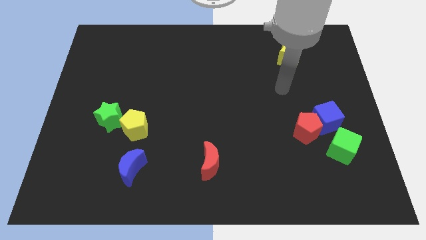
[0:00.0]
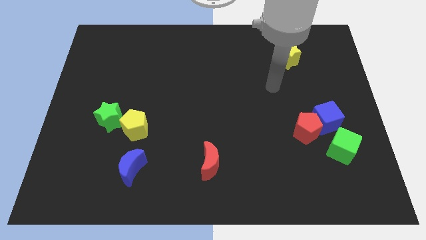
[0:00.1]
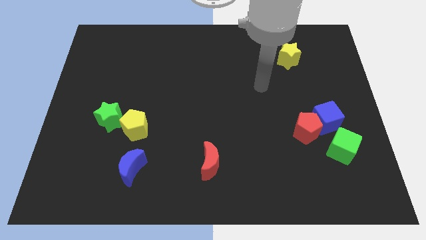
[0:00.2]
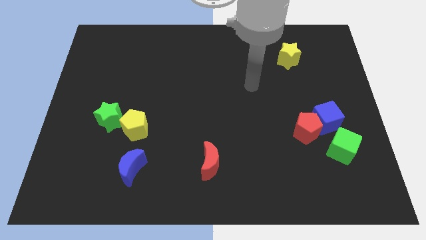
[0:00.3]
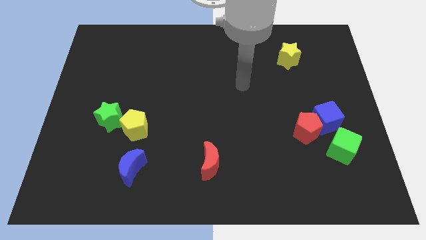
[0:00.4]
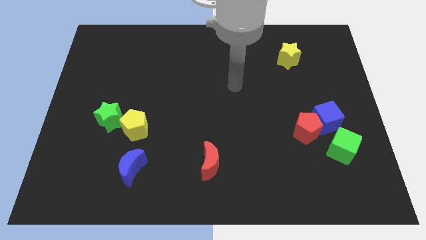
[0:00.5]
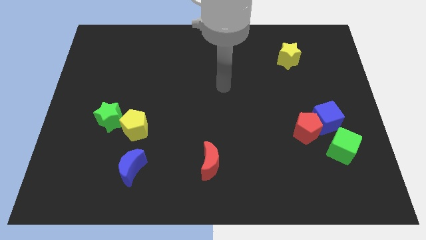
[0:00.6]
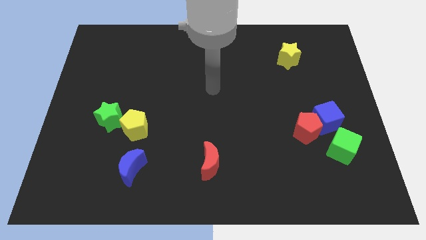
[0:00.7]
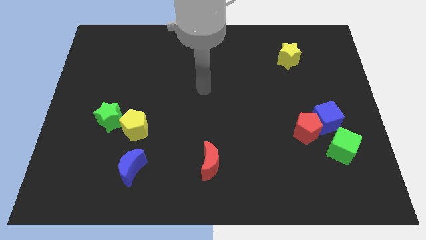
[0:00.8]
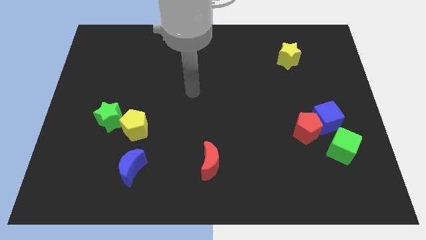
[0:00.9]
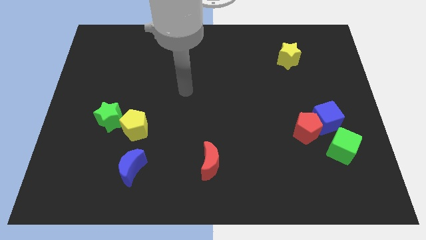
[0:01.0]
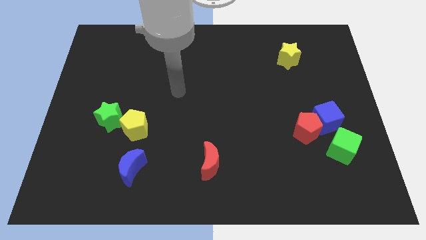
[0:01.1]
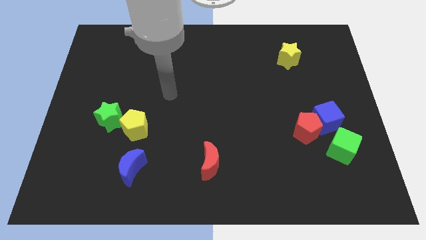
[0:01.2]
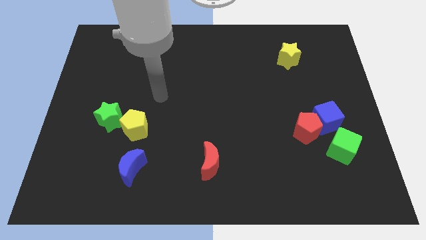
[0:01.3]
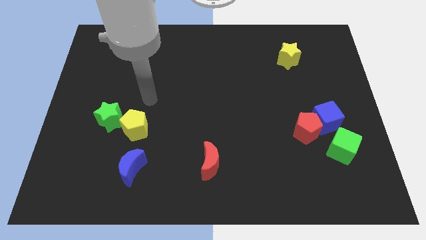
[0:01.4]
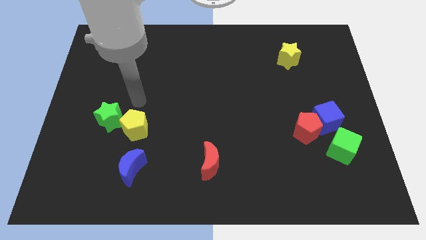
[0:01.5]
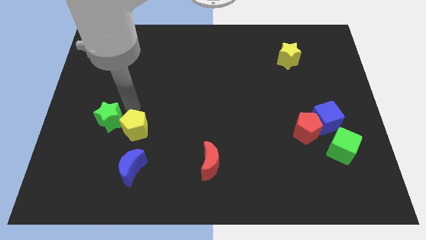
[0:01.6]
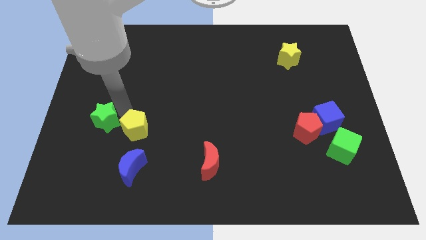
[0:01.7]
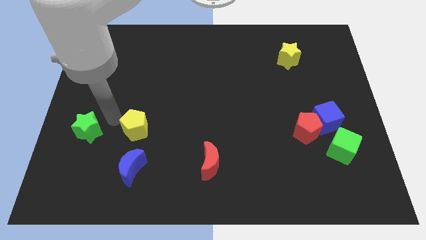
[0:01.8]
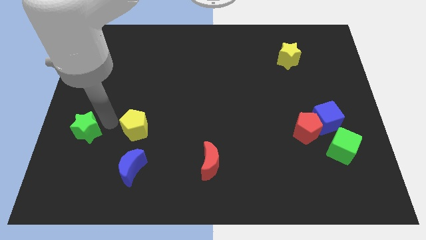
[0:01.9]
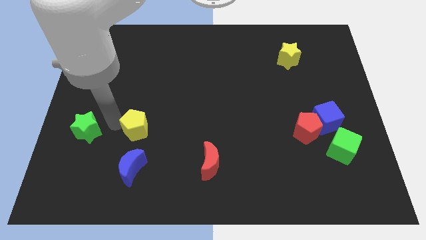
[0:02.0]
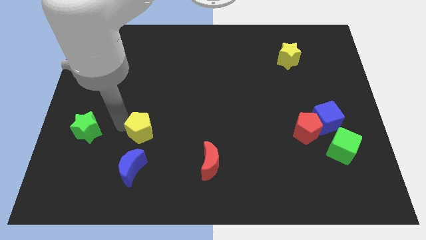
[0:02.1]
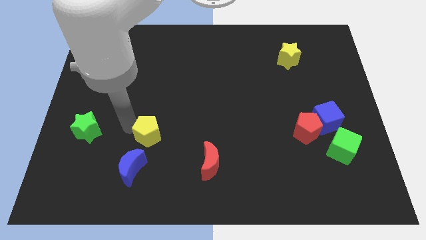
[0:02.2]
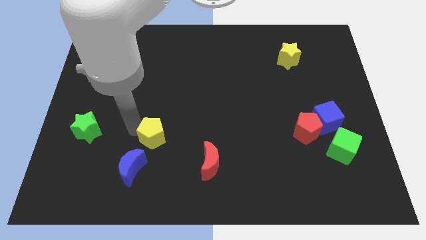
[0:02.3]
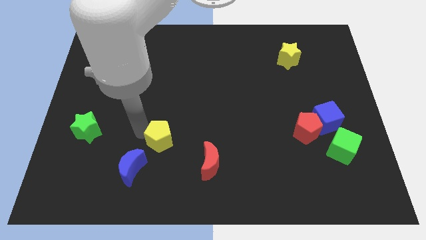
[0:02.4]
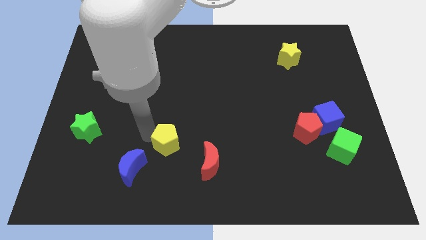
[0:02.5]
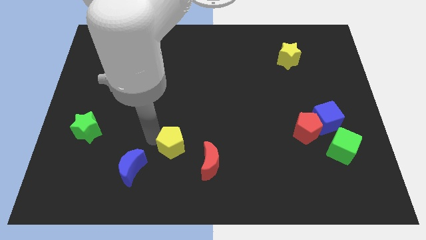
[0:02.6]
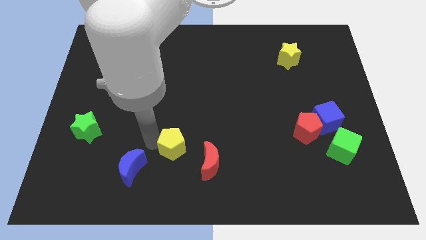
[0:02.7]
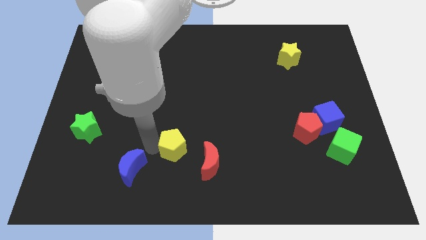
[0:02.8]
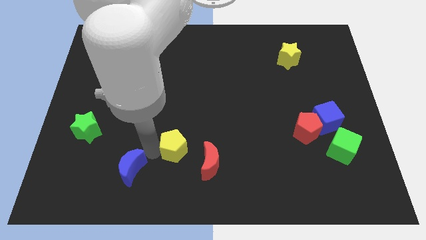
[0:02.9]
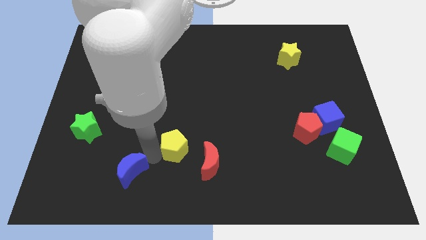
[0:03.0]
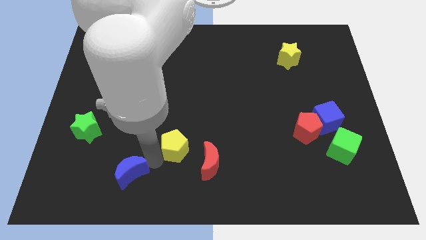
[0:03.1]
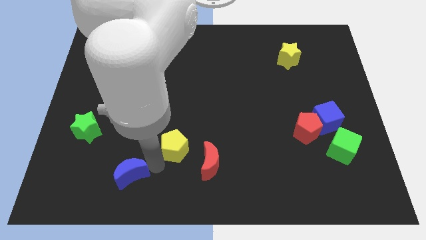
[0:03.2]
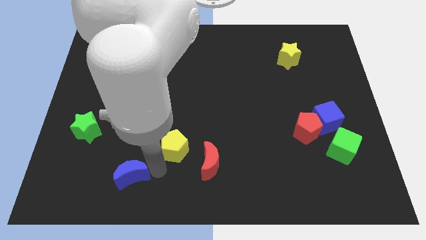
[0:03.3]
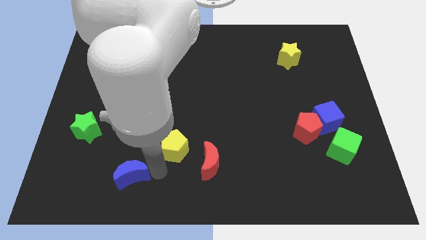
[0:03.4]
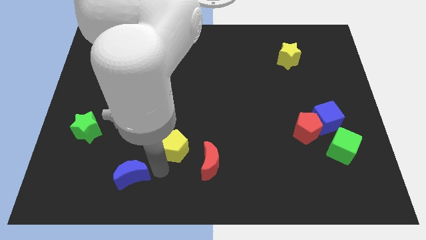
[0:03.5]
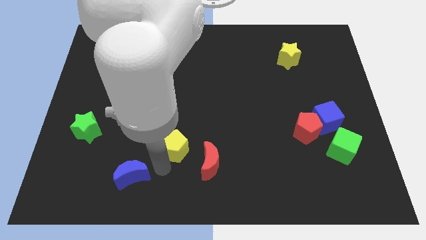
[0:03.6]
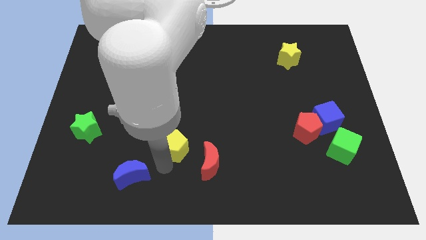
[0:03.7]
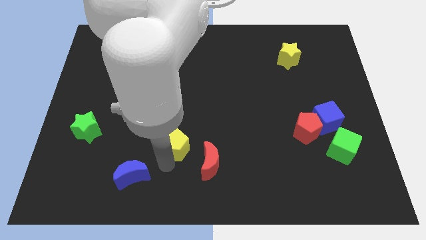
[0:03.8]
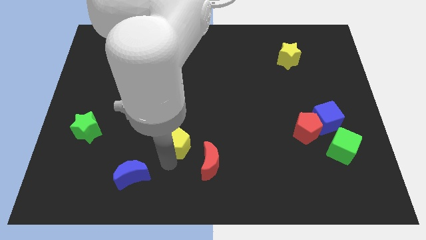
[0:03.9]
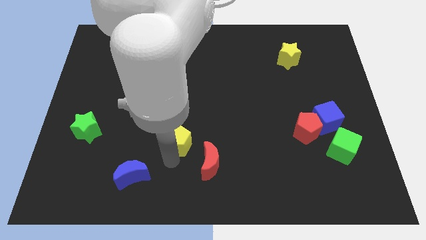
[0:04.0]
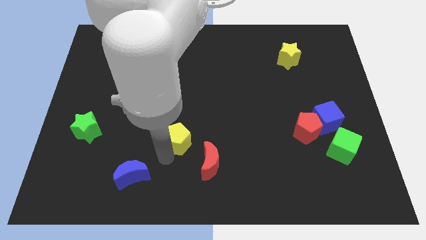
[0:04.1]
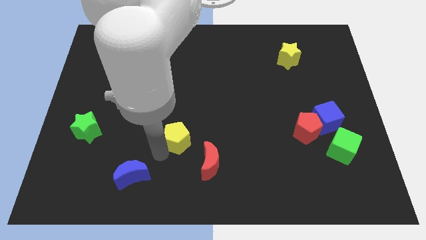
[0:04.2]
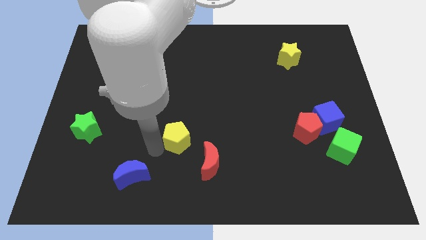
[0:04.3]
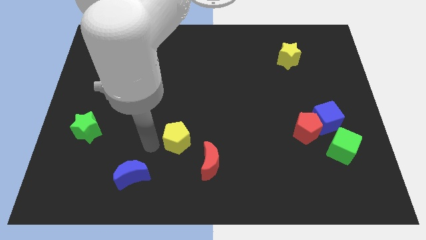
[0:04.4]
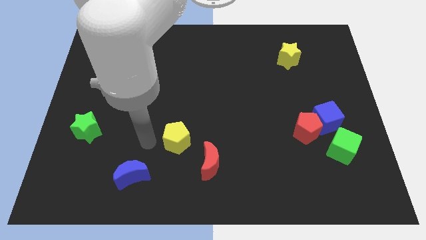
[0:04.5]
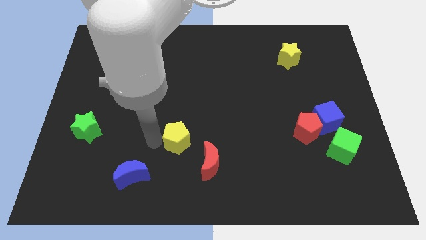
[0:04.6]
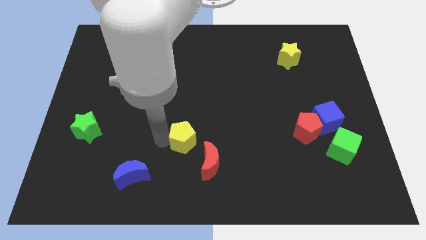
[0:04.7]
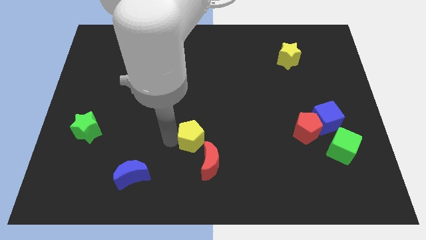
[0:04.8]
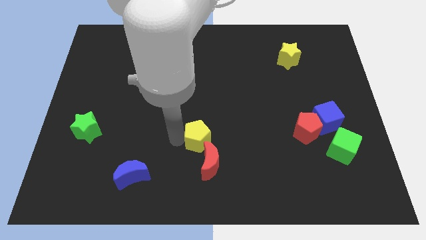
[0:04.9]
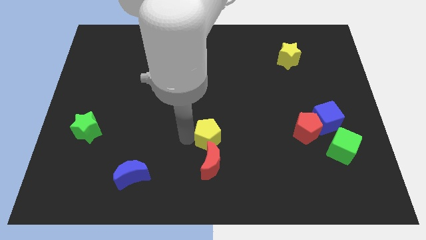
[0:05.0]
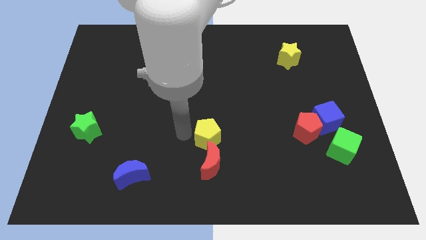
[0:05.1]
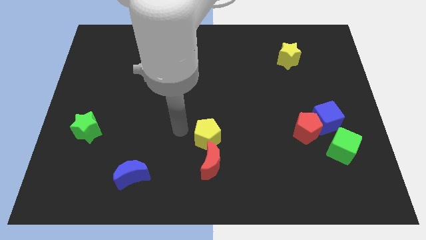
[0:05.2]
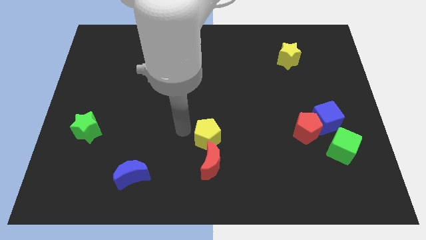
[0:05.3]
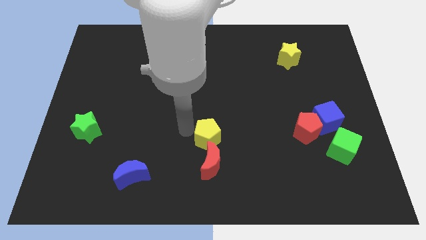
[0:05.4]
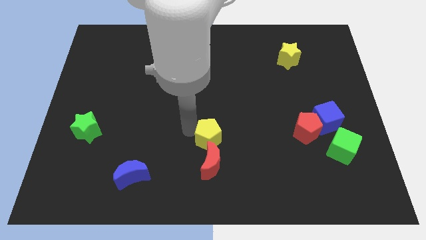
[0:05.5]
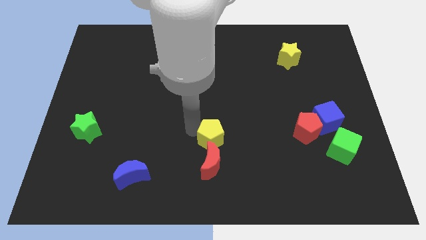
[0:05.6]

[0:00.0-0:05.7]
slide the yellow pentagon to the top right of the red moon

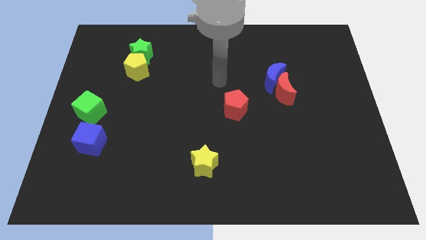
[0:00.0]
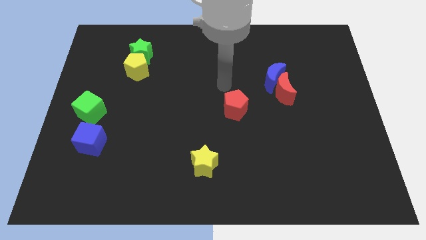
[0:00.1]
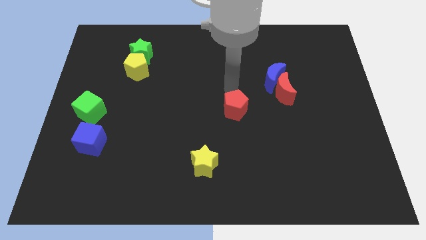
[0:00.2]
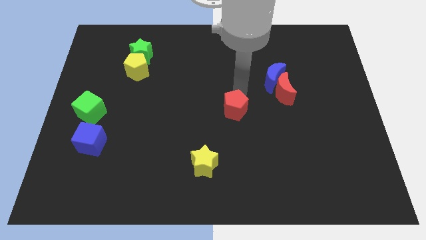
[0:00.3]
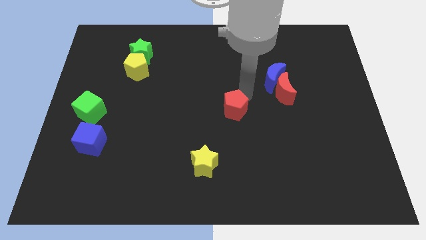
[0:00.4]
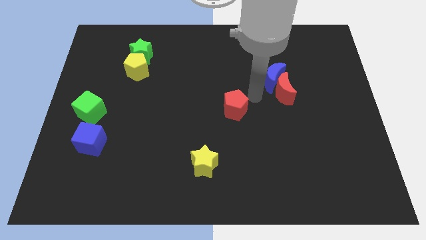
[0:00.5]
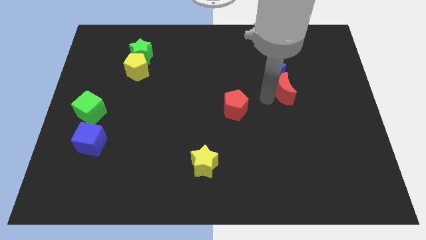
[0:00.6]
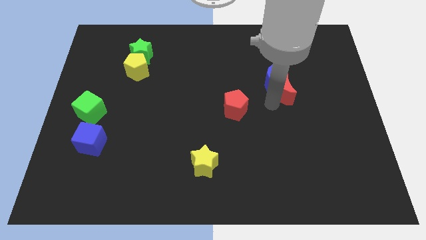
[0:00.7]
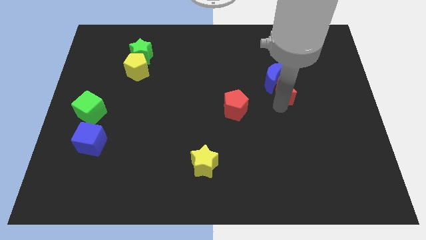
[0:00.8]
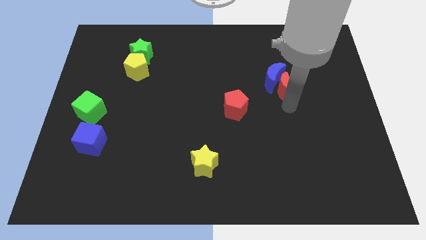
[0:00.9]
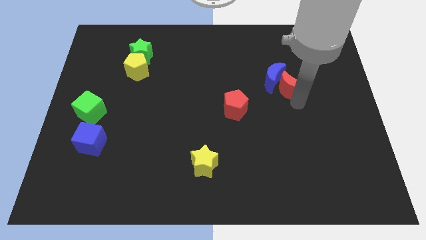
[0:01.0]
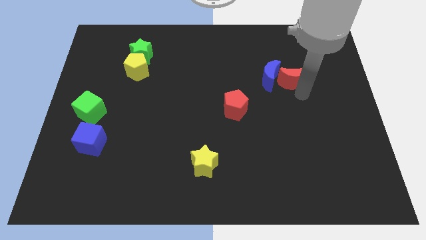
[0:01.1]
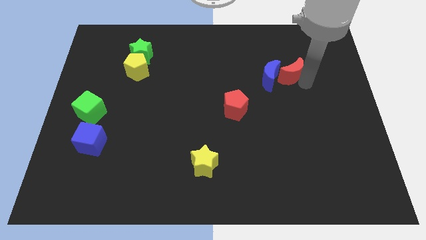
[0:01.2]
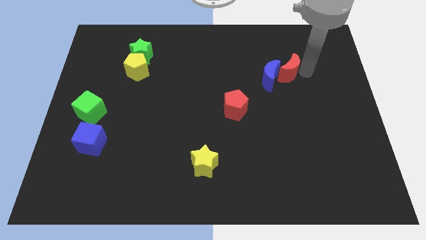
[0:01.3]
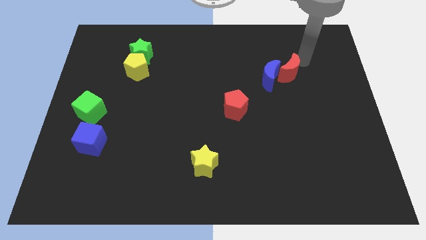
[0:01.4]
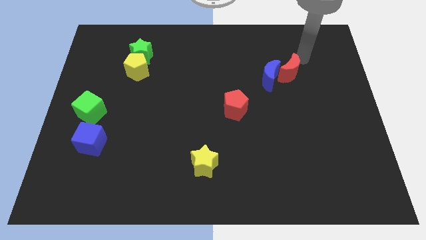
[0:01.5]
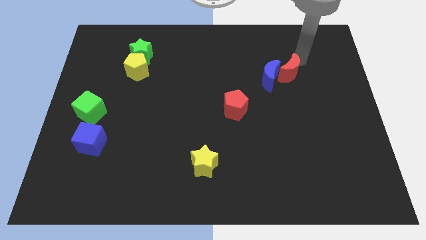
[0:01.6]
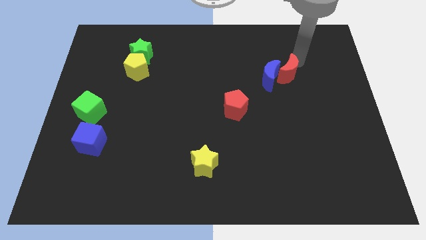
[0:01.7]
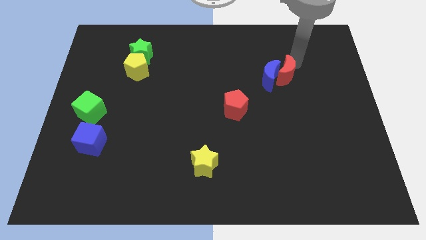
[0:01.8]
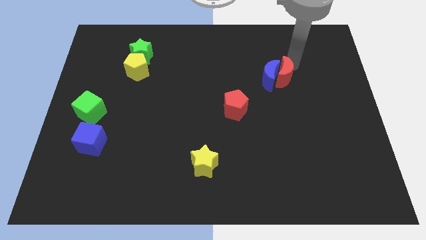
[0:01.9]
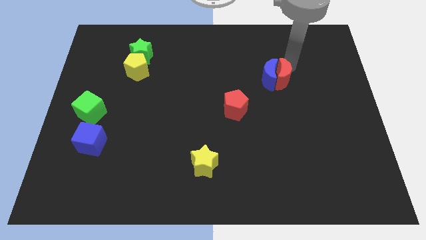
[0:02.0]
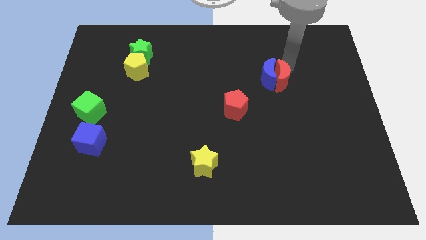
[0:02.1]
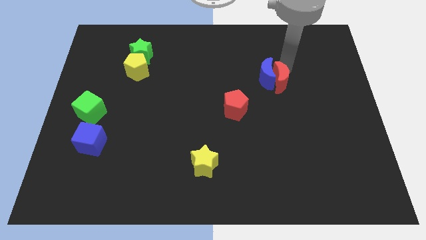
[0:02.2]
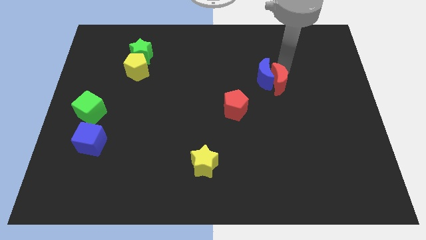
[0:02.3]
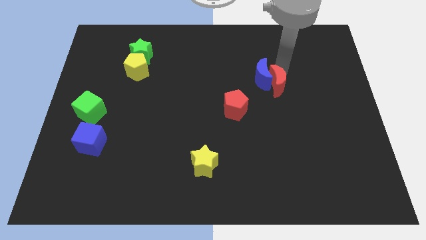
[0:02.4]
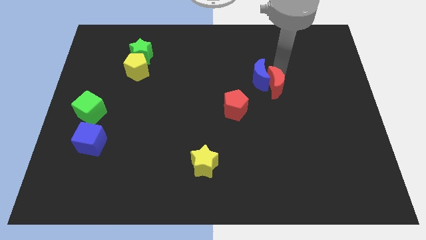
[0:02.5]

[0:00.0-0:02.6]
put the red moon diagonally up and to the right of the red pentagon
